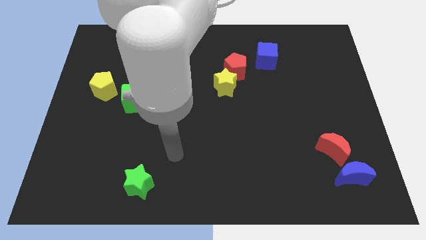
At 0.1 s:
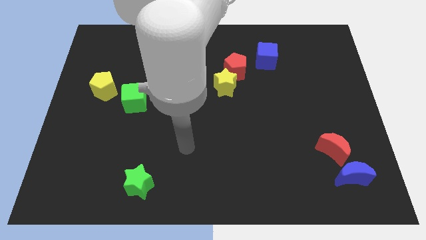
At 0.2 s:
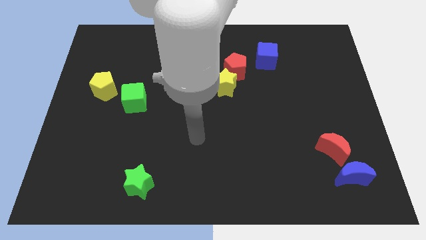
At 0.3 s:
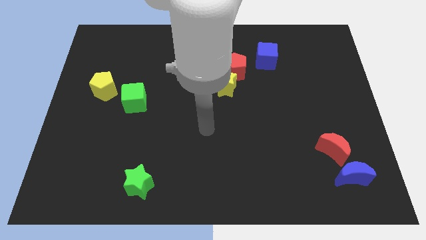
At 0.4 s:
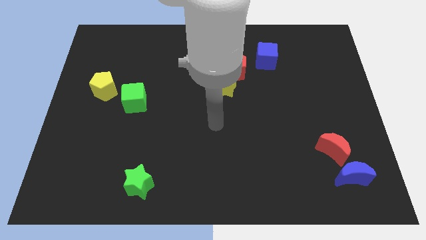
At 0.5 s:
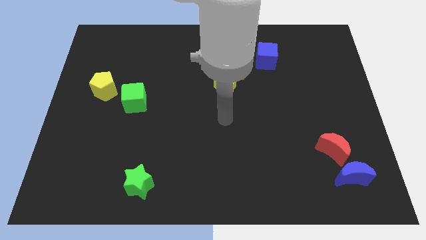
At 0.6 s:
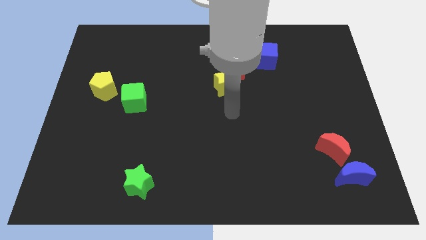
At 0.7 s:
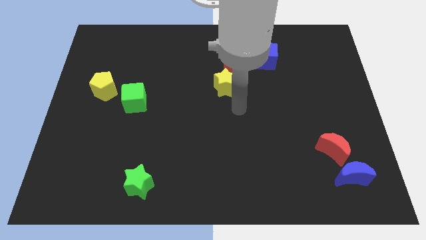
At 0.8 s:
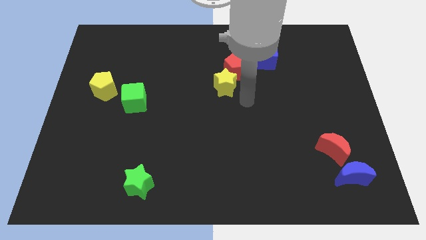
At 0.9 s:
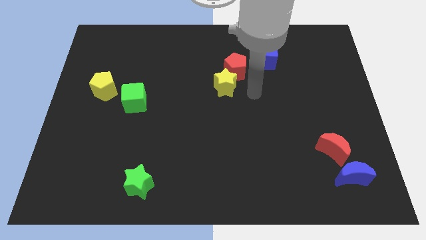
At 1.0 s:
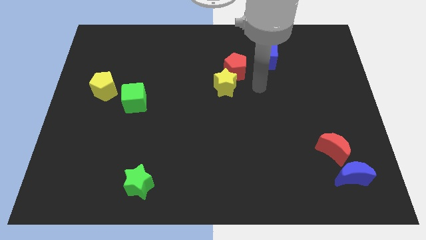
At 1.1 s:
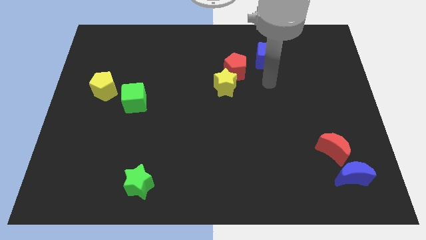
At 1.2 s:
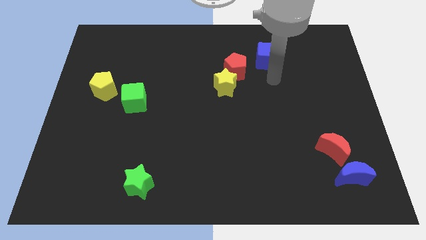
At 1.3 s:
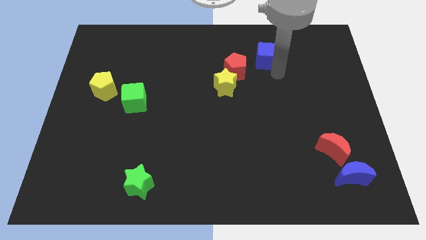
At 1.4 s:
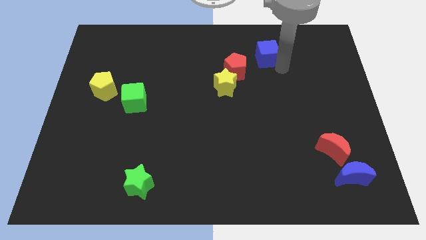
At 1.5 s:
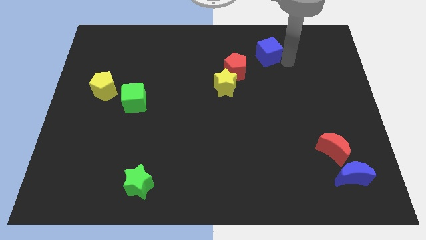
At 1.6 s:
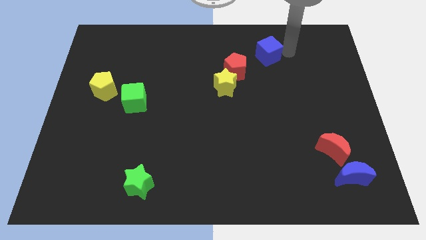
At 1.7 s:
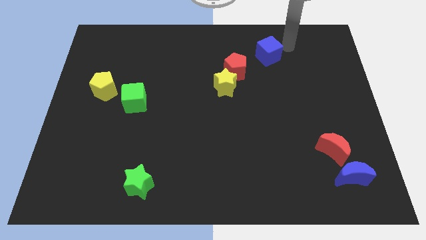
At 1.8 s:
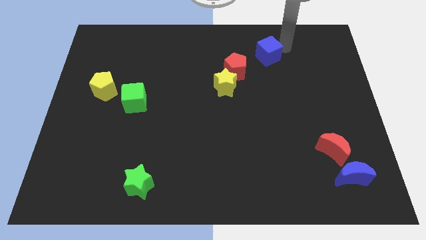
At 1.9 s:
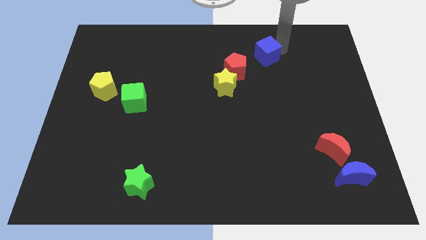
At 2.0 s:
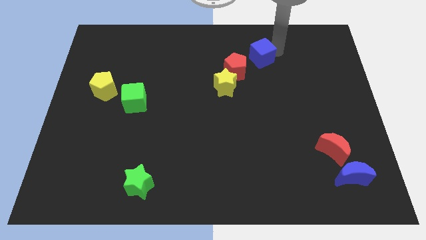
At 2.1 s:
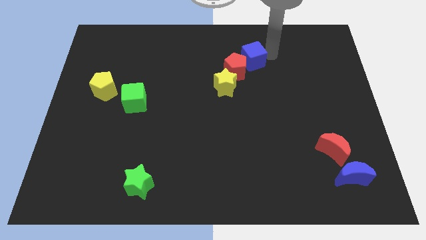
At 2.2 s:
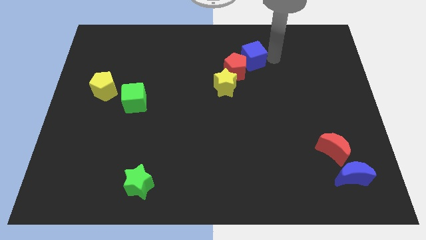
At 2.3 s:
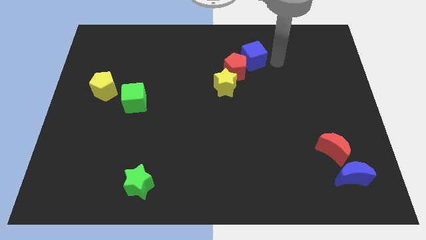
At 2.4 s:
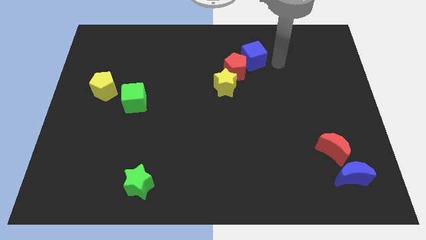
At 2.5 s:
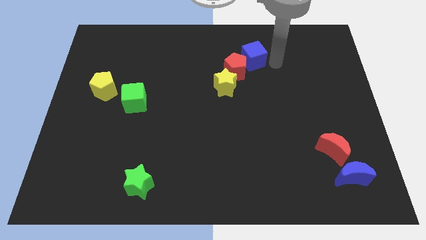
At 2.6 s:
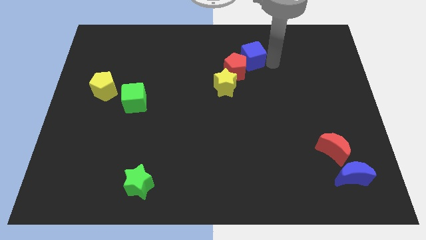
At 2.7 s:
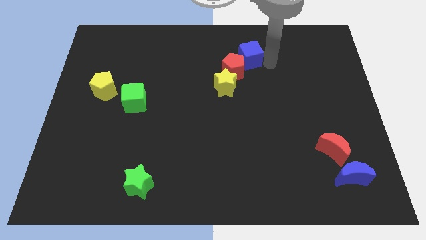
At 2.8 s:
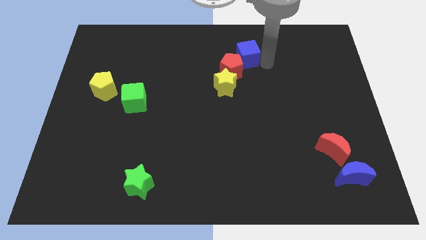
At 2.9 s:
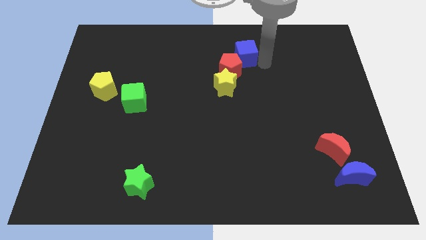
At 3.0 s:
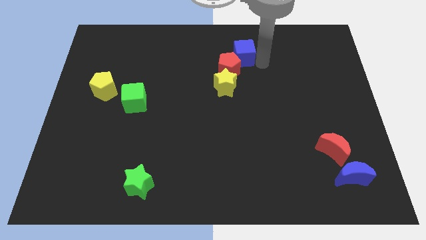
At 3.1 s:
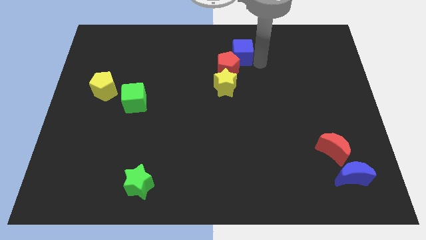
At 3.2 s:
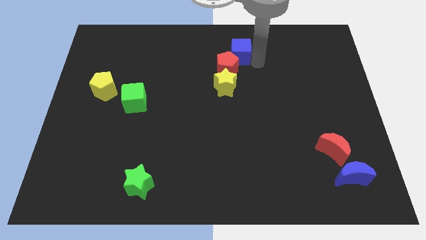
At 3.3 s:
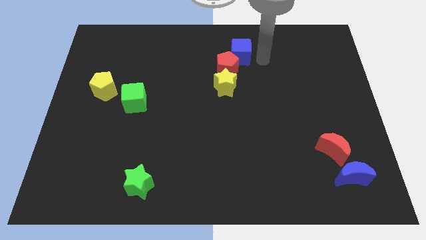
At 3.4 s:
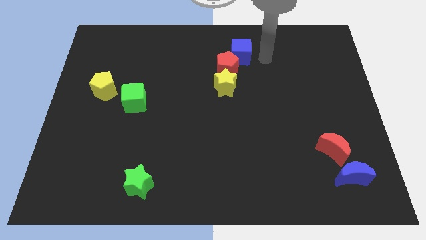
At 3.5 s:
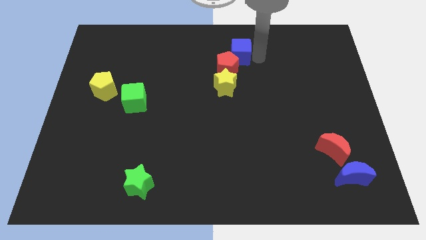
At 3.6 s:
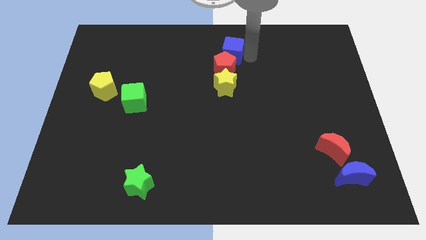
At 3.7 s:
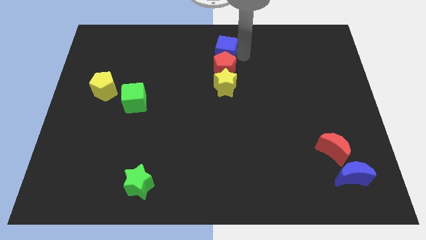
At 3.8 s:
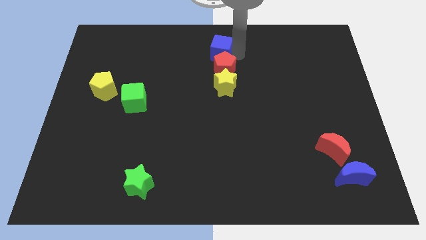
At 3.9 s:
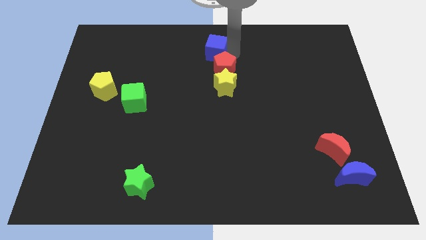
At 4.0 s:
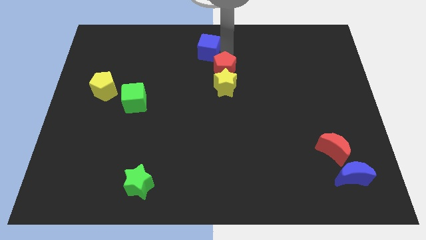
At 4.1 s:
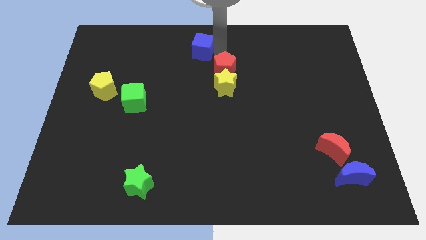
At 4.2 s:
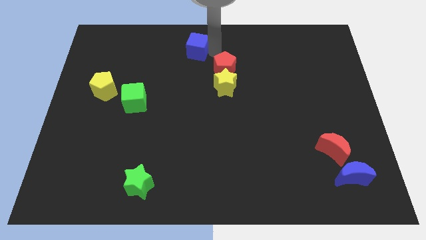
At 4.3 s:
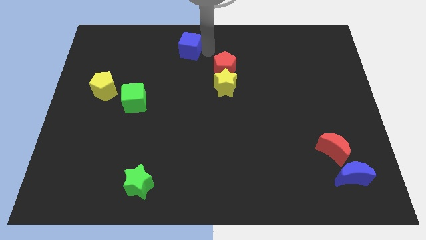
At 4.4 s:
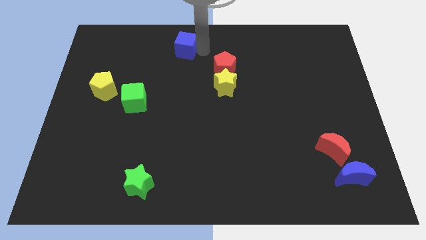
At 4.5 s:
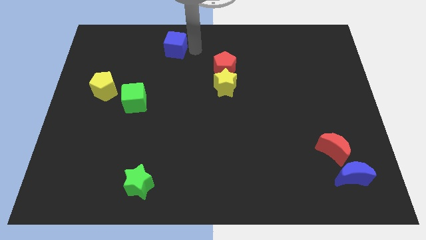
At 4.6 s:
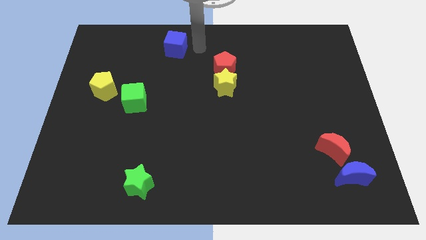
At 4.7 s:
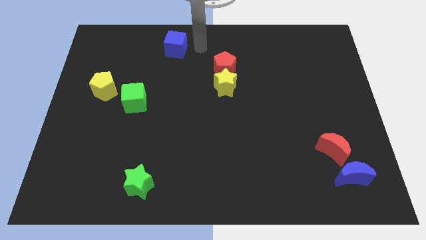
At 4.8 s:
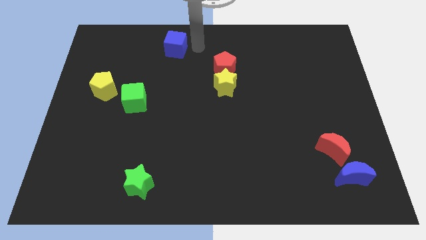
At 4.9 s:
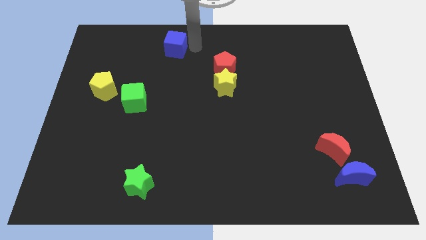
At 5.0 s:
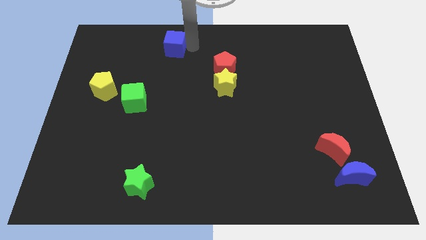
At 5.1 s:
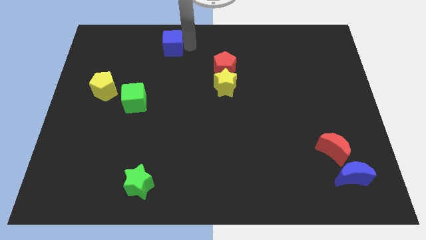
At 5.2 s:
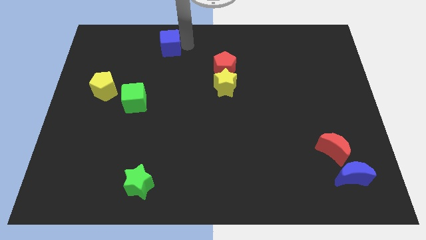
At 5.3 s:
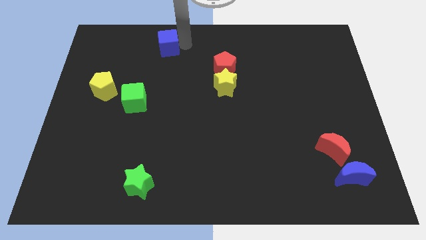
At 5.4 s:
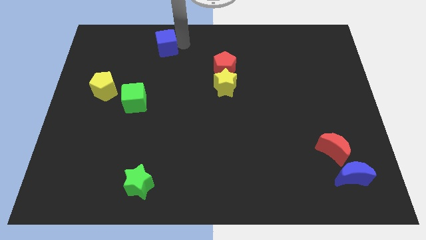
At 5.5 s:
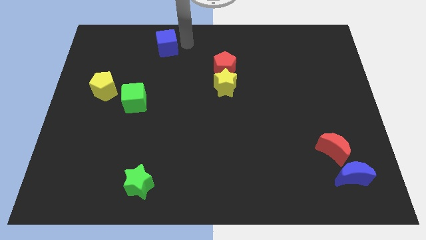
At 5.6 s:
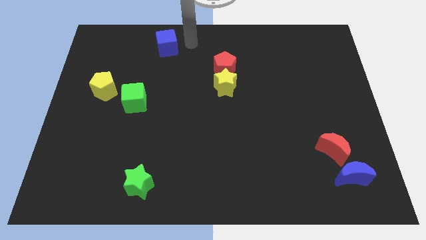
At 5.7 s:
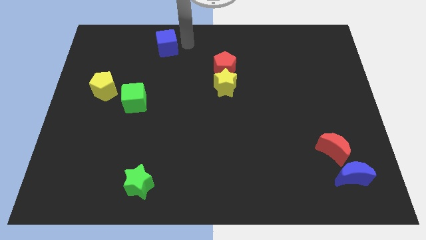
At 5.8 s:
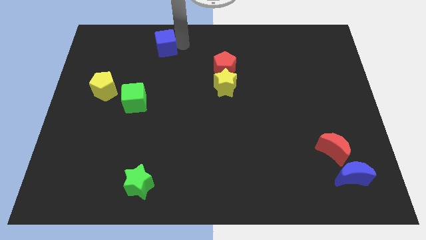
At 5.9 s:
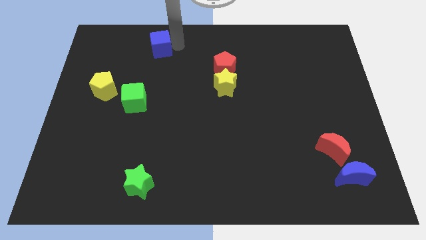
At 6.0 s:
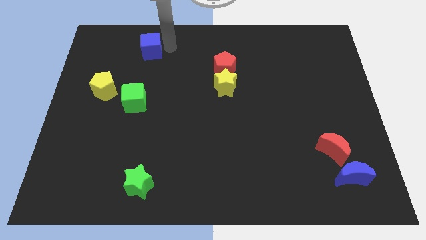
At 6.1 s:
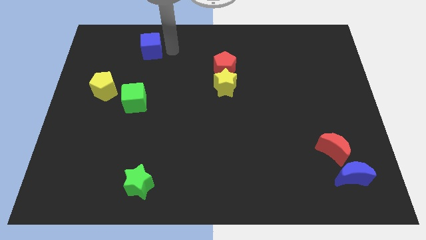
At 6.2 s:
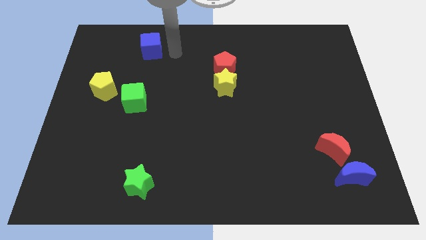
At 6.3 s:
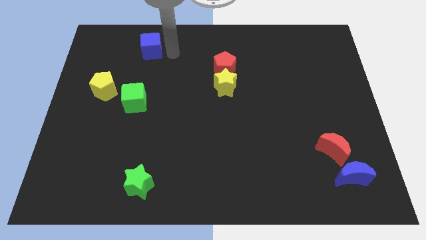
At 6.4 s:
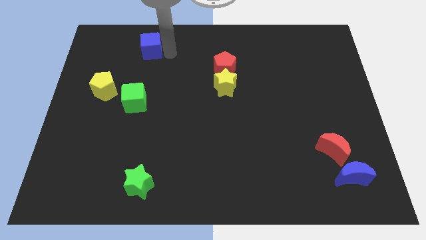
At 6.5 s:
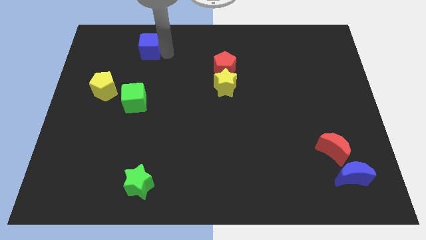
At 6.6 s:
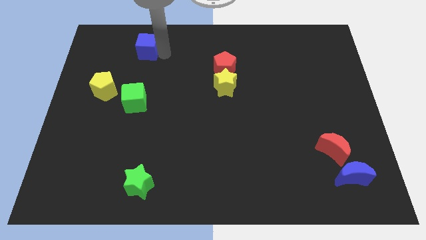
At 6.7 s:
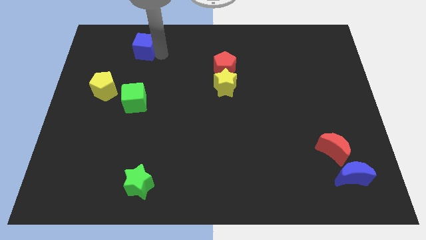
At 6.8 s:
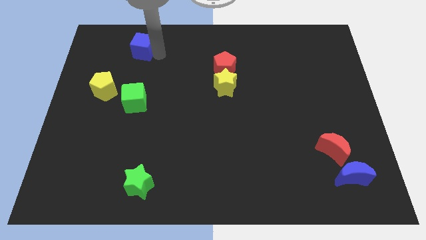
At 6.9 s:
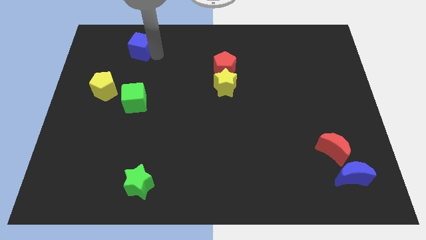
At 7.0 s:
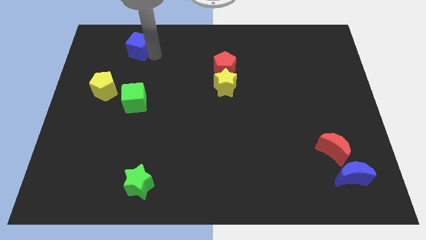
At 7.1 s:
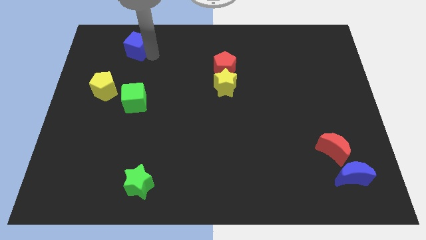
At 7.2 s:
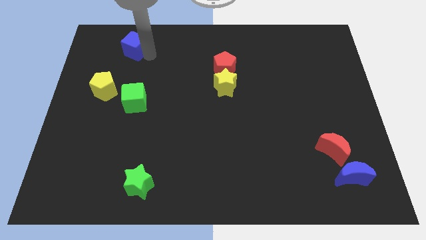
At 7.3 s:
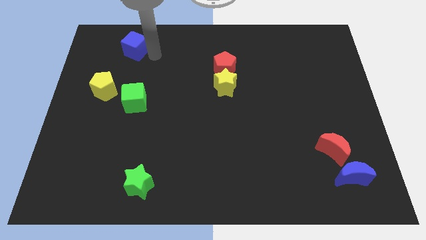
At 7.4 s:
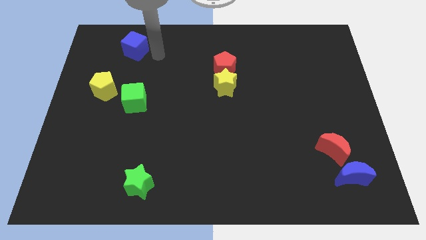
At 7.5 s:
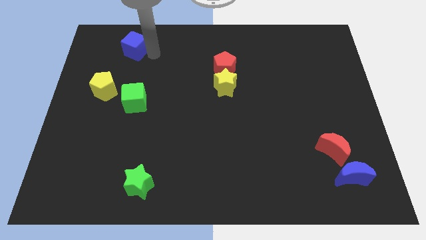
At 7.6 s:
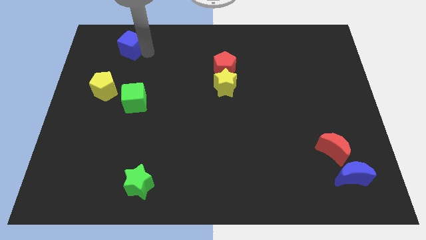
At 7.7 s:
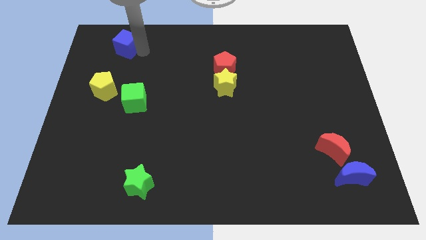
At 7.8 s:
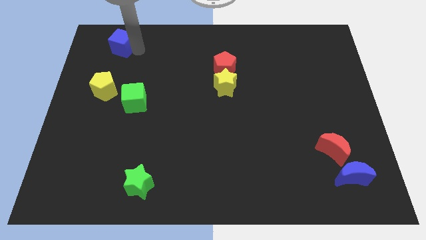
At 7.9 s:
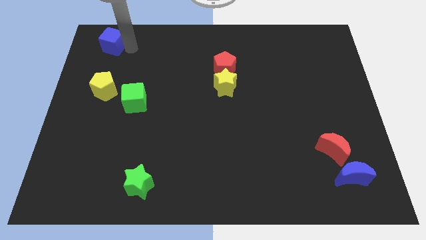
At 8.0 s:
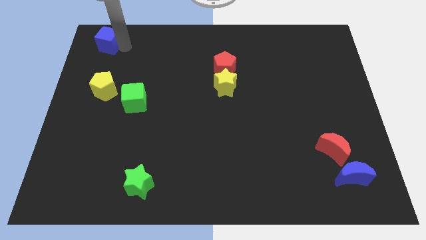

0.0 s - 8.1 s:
put the blue cube to the top left of the board
